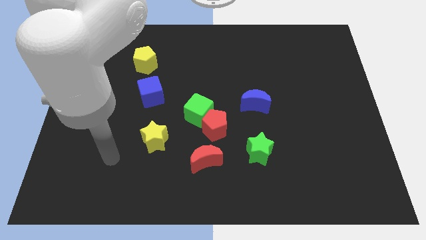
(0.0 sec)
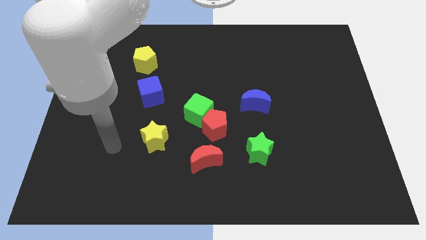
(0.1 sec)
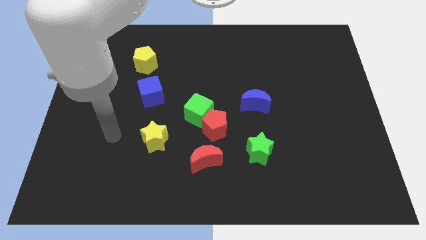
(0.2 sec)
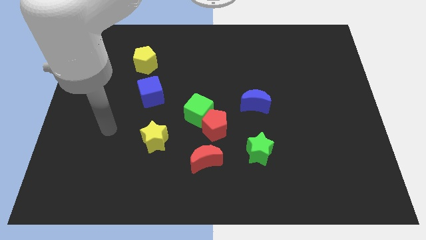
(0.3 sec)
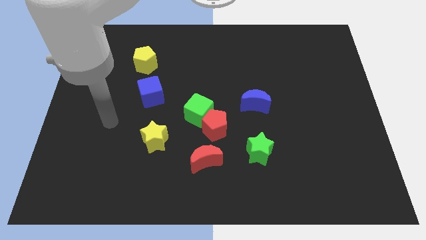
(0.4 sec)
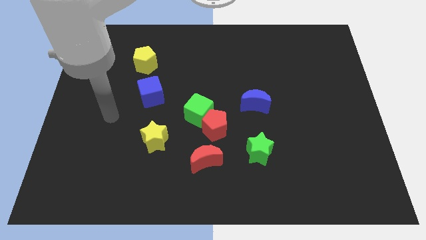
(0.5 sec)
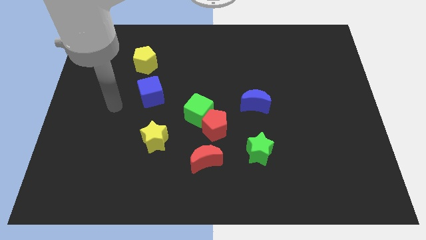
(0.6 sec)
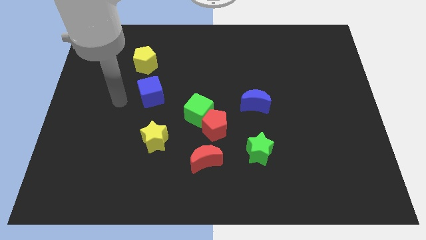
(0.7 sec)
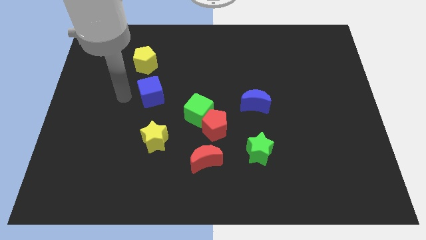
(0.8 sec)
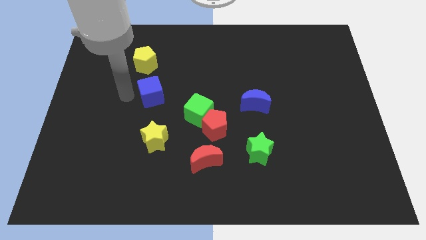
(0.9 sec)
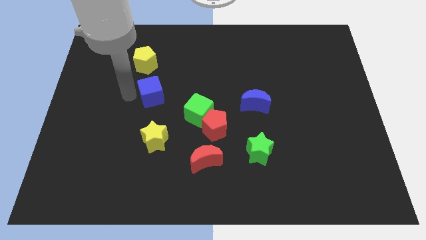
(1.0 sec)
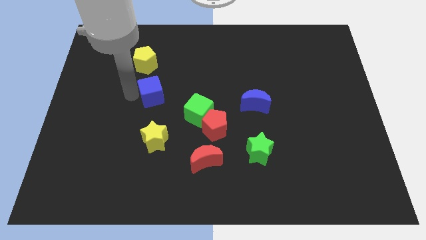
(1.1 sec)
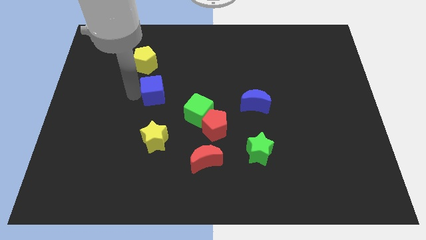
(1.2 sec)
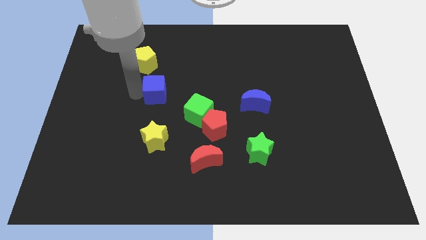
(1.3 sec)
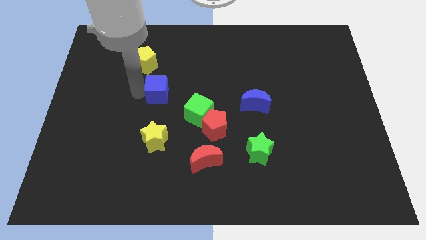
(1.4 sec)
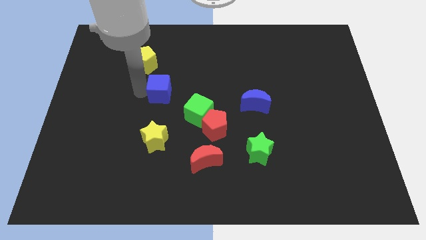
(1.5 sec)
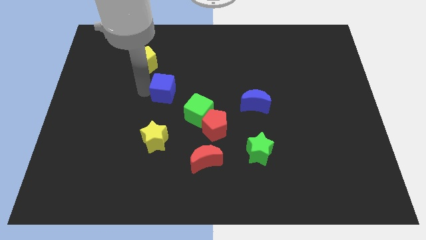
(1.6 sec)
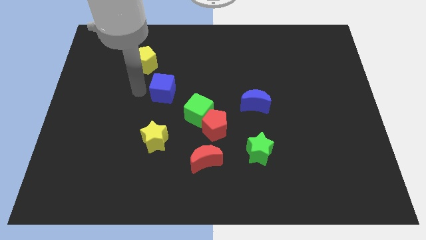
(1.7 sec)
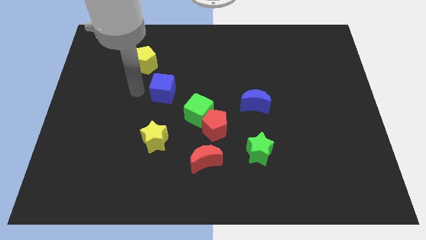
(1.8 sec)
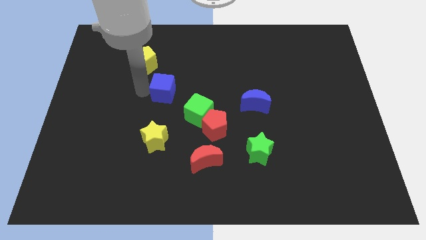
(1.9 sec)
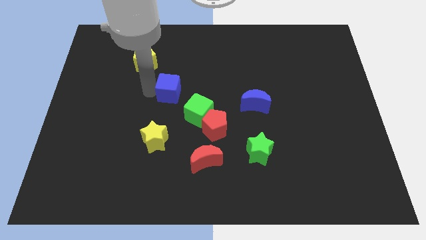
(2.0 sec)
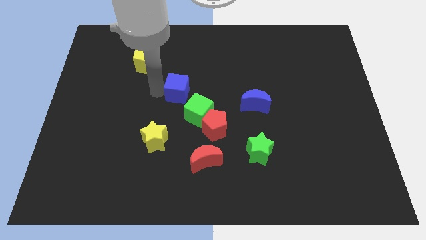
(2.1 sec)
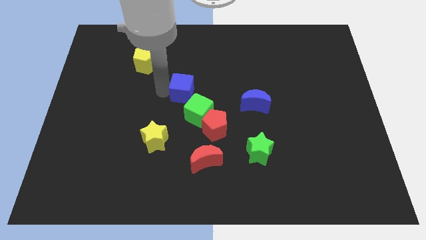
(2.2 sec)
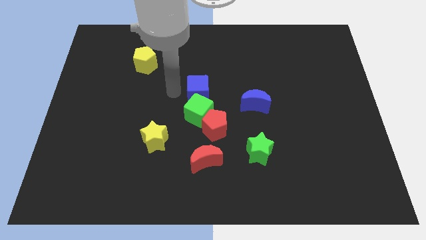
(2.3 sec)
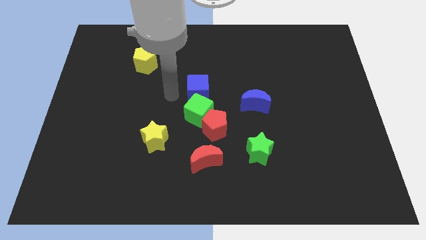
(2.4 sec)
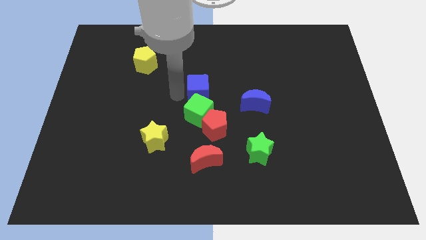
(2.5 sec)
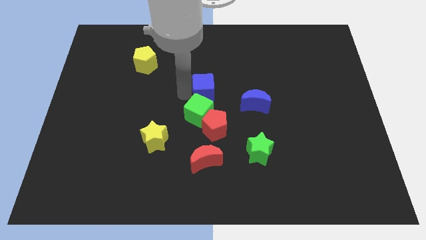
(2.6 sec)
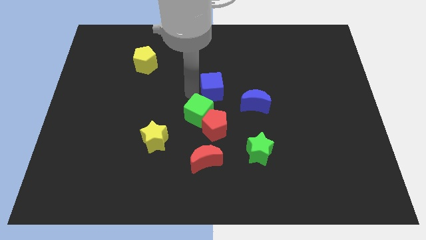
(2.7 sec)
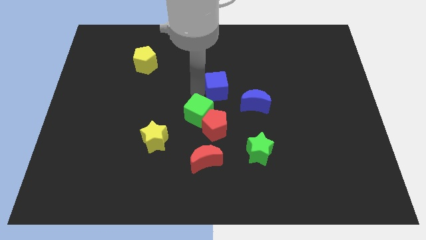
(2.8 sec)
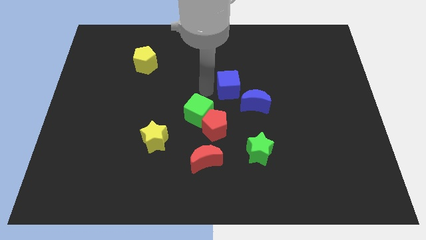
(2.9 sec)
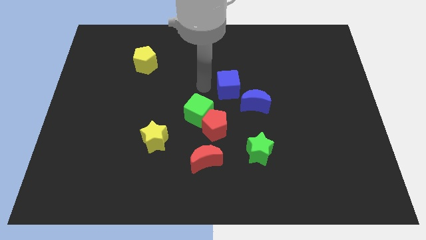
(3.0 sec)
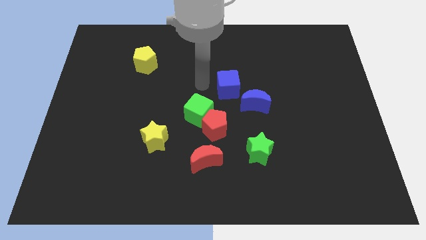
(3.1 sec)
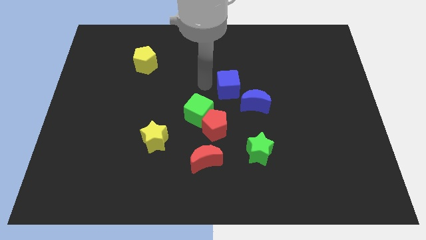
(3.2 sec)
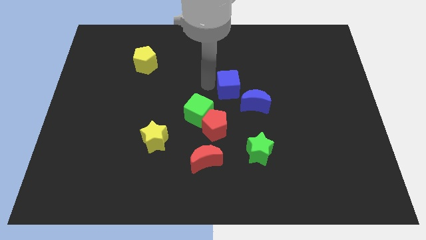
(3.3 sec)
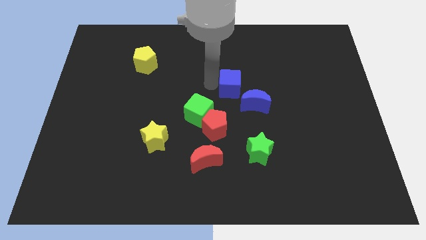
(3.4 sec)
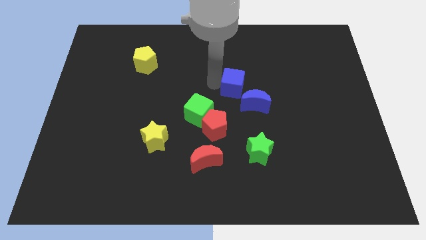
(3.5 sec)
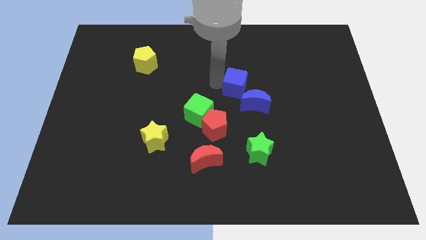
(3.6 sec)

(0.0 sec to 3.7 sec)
move the blue cube right

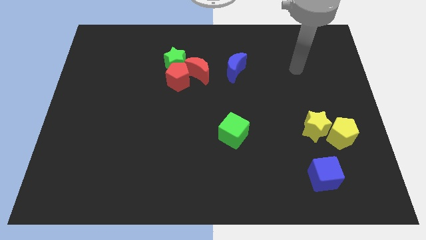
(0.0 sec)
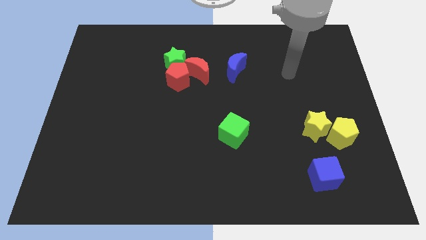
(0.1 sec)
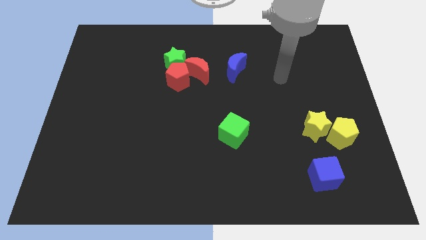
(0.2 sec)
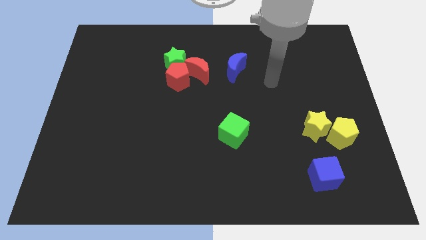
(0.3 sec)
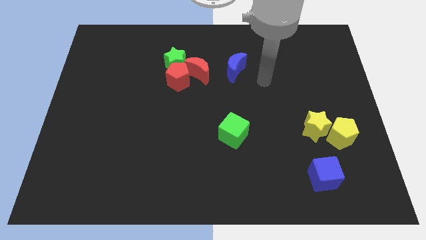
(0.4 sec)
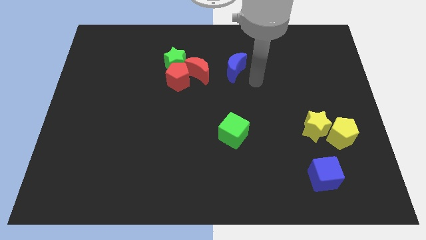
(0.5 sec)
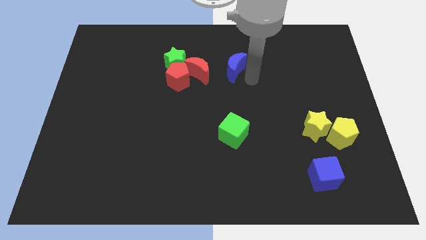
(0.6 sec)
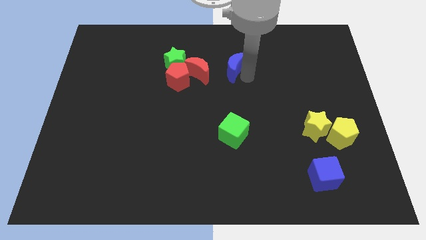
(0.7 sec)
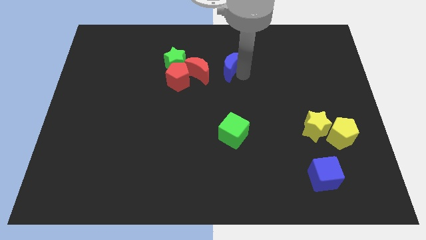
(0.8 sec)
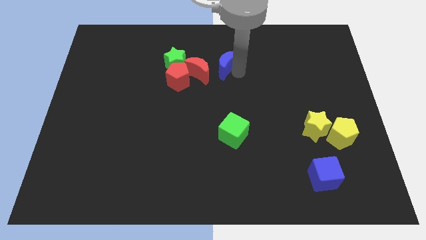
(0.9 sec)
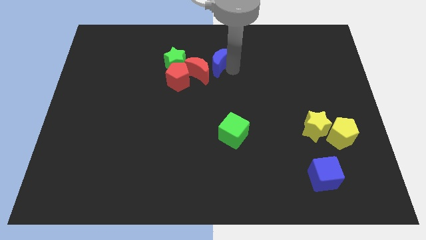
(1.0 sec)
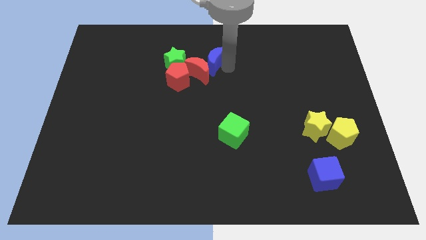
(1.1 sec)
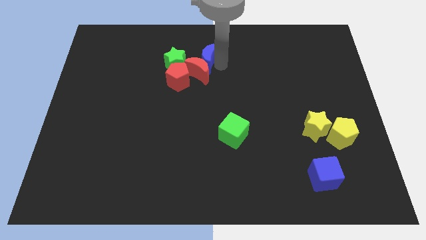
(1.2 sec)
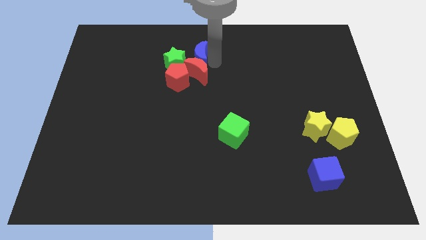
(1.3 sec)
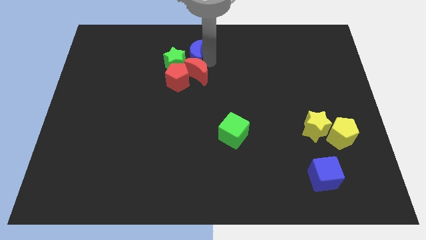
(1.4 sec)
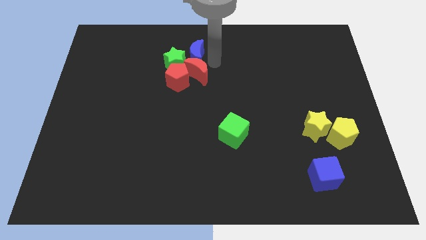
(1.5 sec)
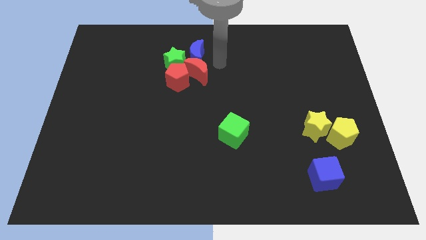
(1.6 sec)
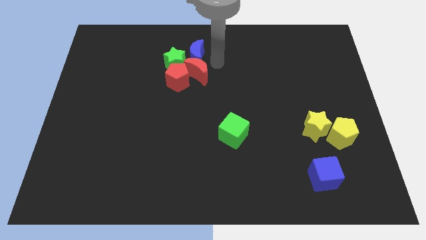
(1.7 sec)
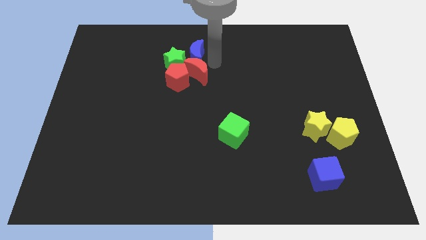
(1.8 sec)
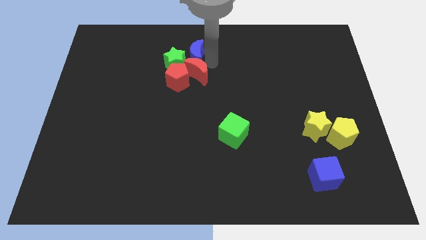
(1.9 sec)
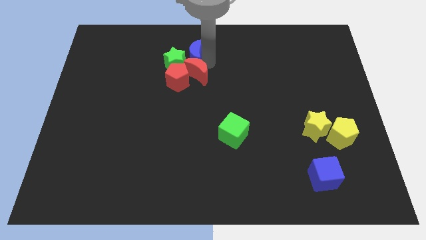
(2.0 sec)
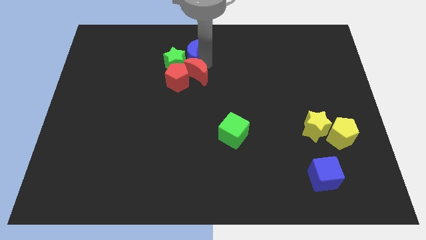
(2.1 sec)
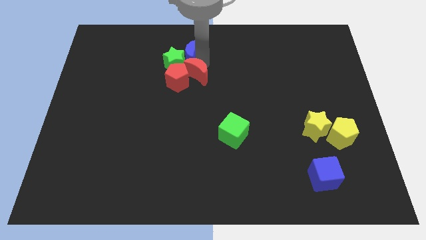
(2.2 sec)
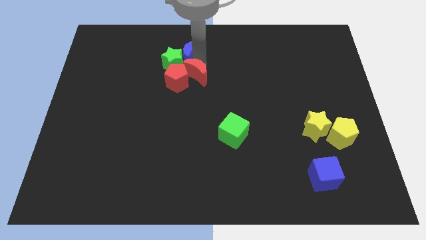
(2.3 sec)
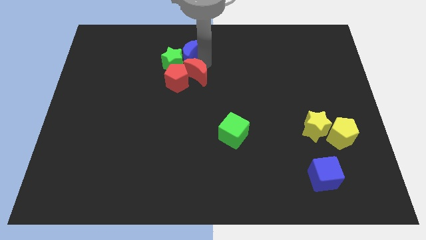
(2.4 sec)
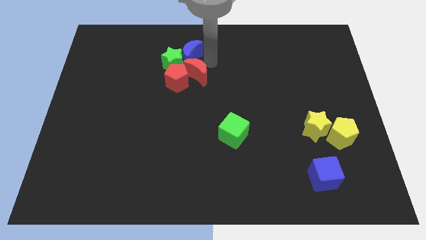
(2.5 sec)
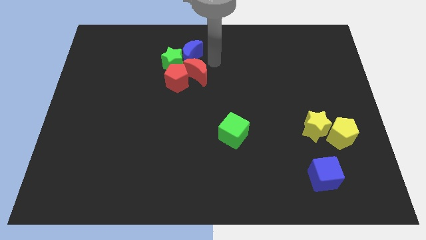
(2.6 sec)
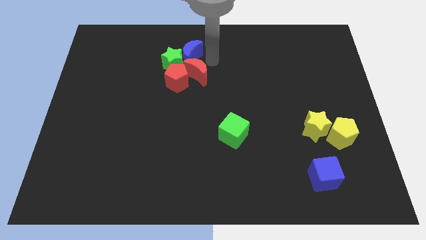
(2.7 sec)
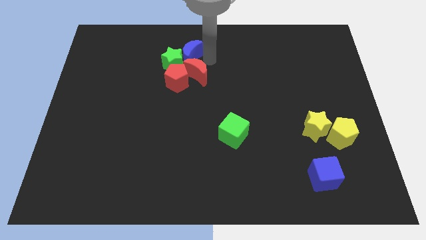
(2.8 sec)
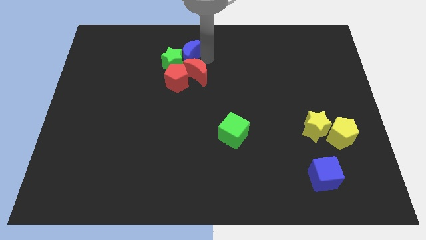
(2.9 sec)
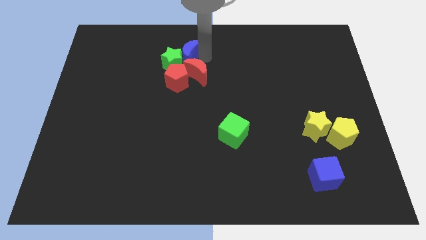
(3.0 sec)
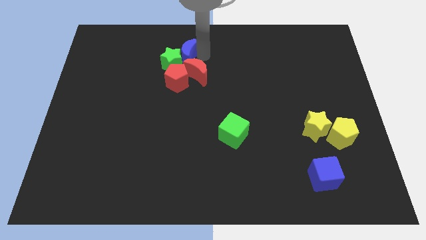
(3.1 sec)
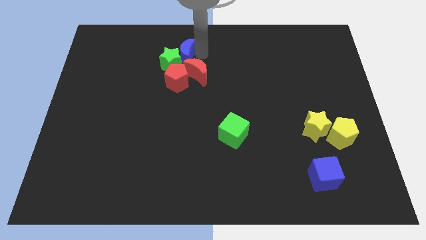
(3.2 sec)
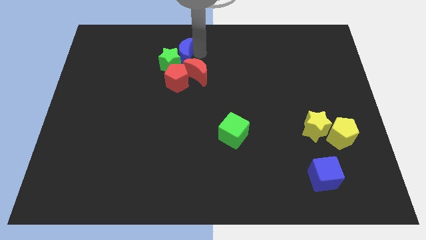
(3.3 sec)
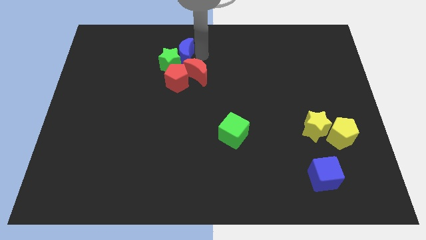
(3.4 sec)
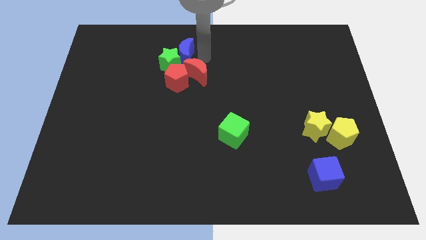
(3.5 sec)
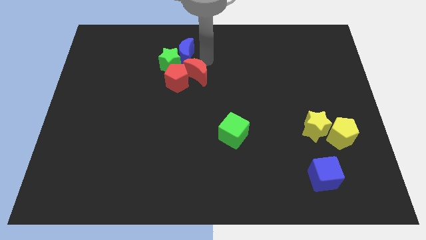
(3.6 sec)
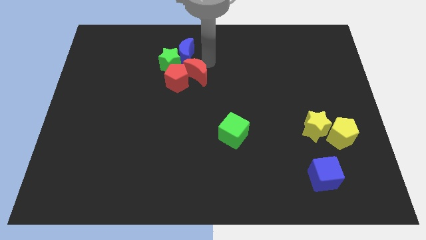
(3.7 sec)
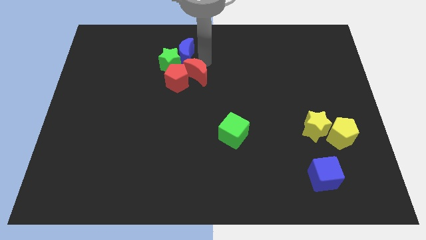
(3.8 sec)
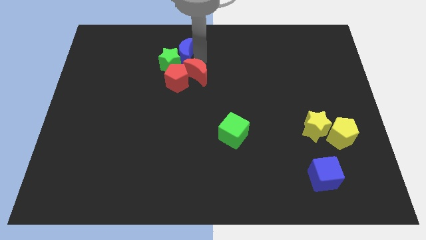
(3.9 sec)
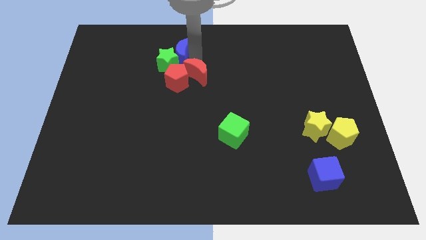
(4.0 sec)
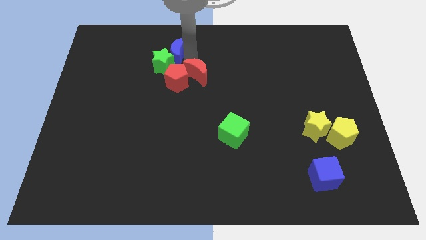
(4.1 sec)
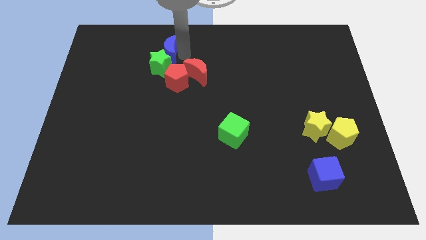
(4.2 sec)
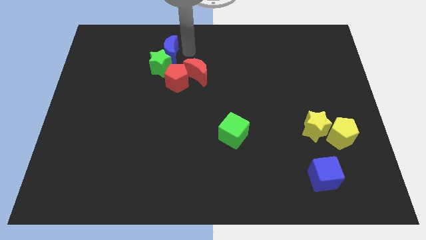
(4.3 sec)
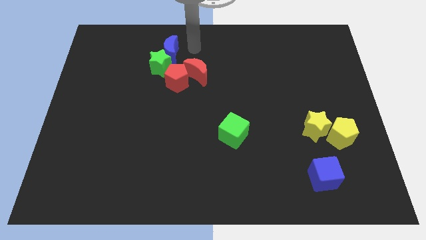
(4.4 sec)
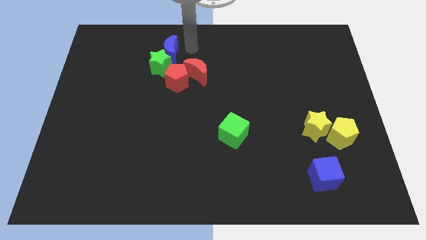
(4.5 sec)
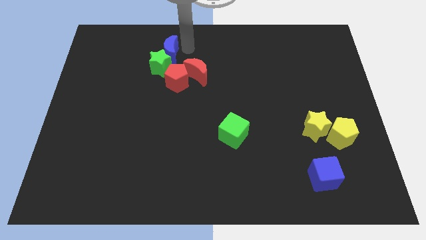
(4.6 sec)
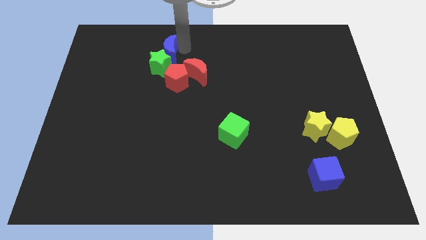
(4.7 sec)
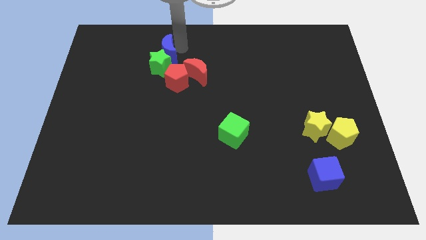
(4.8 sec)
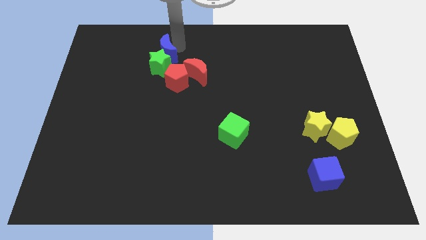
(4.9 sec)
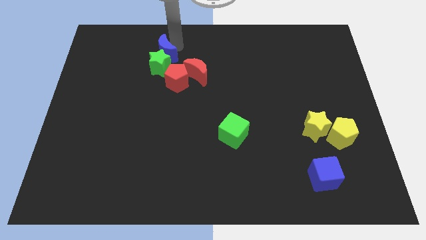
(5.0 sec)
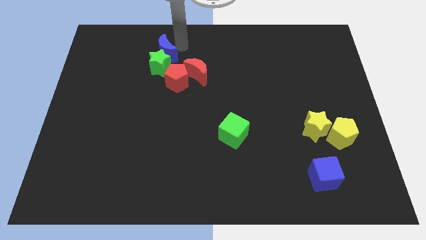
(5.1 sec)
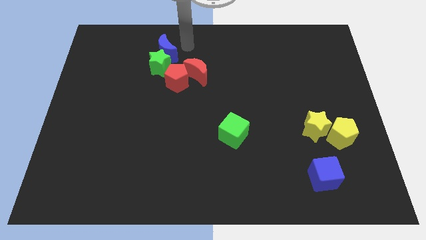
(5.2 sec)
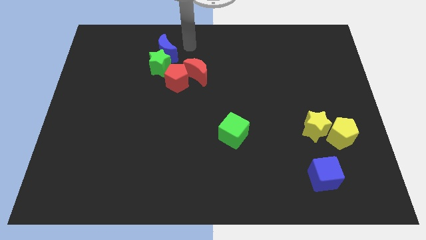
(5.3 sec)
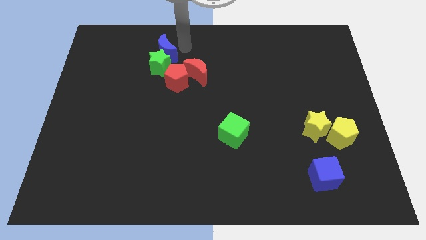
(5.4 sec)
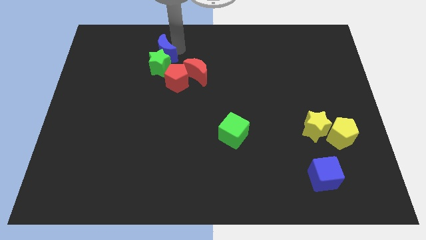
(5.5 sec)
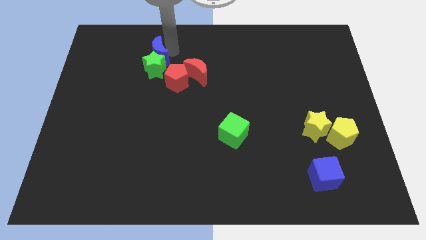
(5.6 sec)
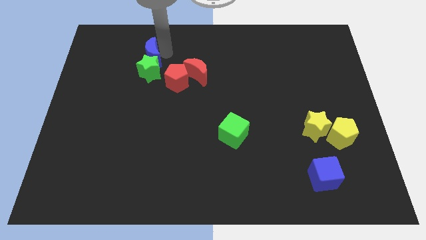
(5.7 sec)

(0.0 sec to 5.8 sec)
slide the blue moon to the left
